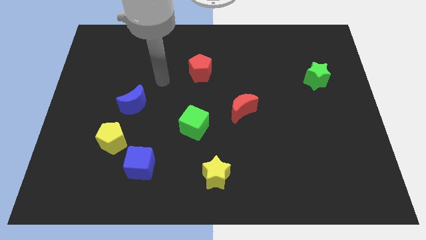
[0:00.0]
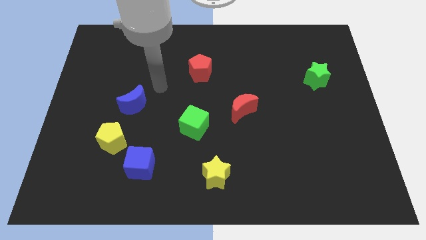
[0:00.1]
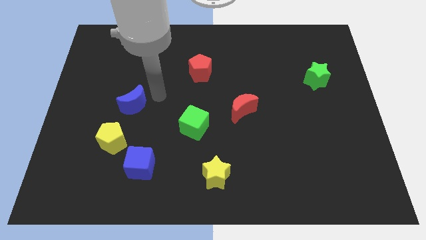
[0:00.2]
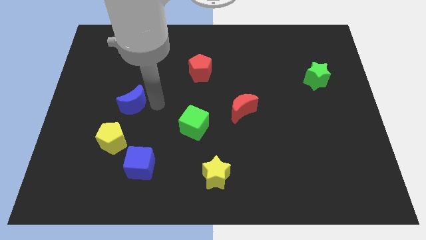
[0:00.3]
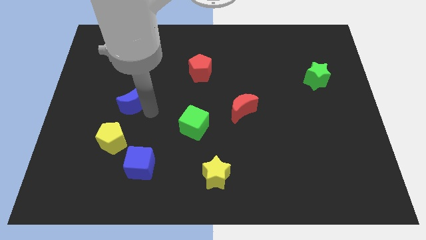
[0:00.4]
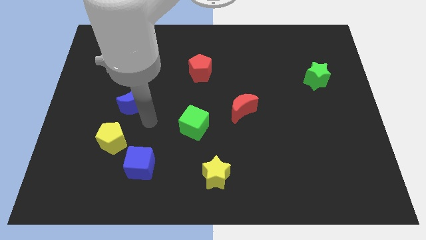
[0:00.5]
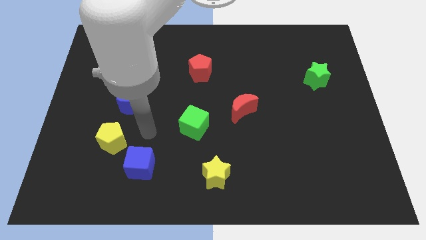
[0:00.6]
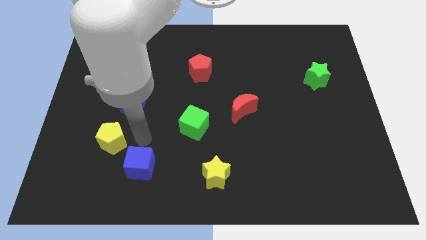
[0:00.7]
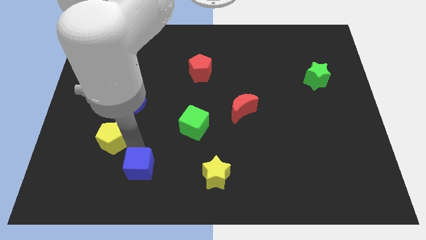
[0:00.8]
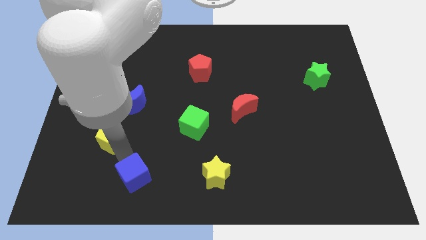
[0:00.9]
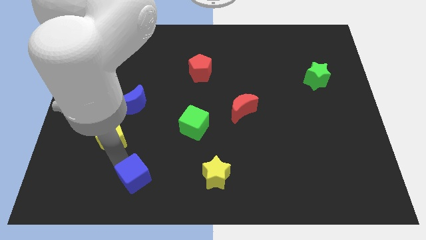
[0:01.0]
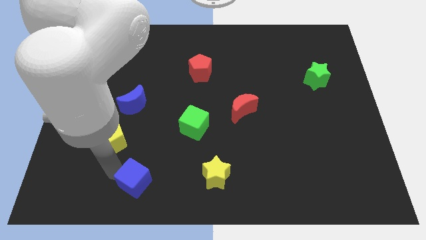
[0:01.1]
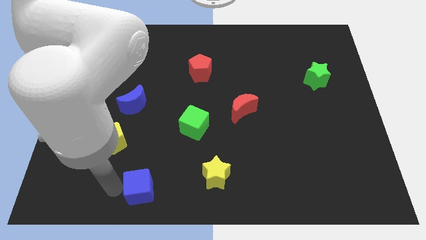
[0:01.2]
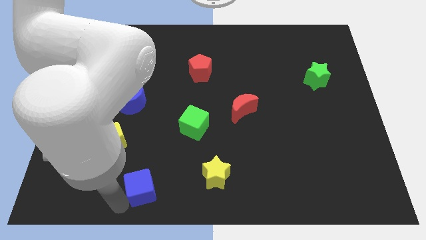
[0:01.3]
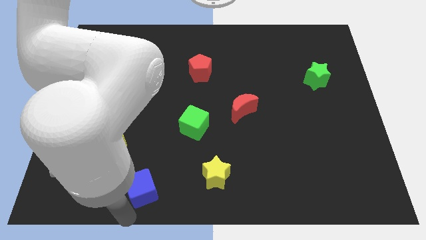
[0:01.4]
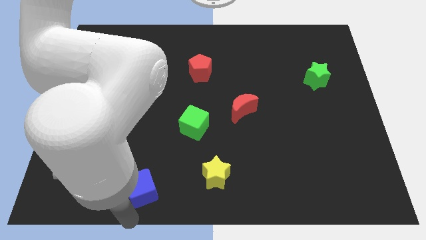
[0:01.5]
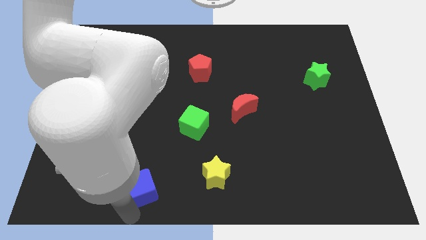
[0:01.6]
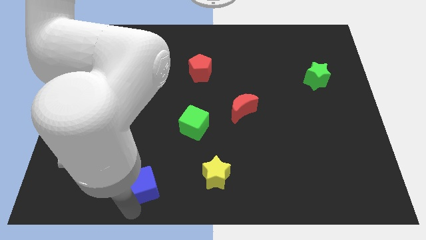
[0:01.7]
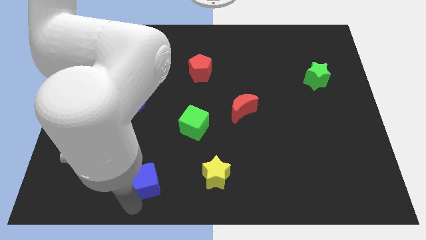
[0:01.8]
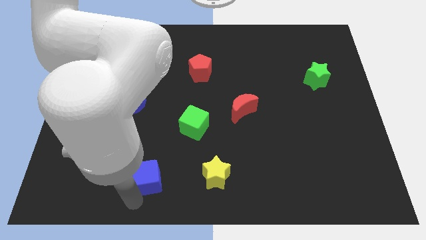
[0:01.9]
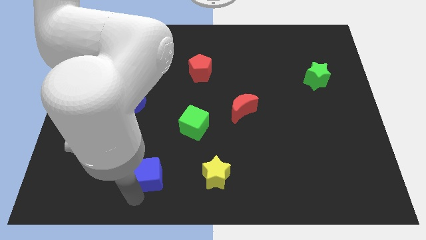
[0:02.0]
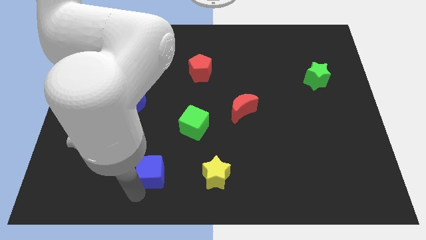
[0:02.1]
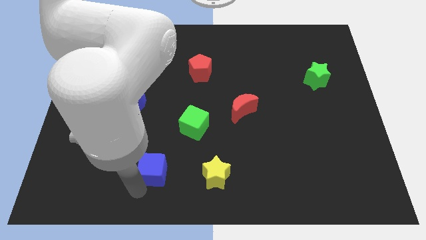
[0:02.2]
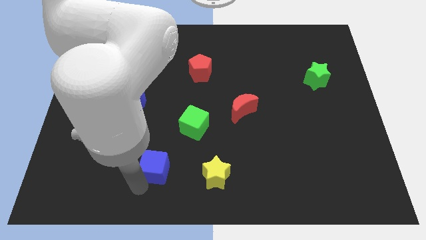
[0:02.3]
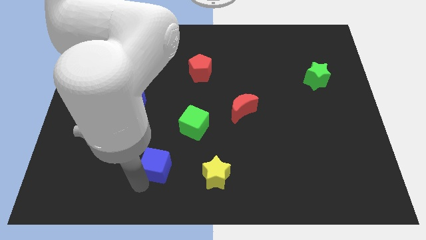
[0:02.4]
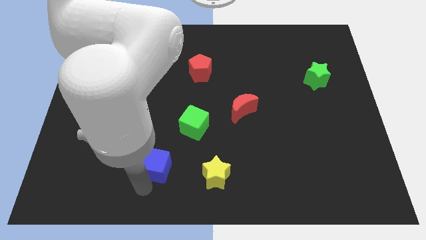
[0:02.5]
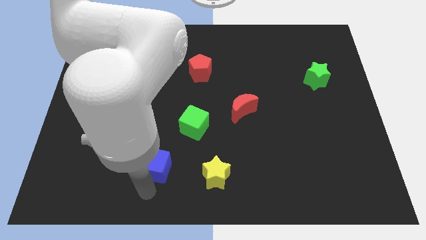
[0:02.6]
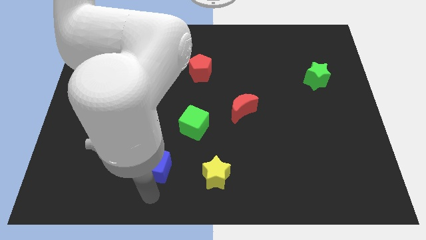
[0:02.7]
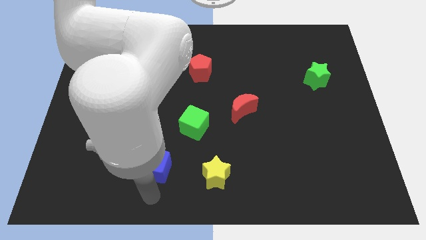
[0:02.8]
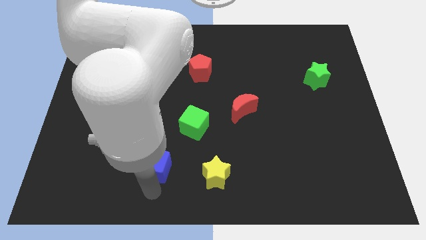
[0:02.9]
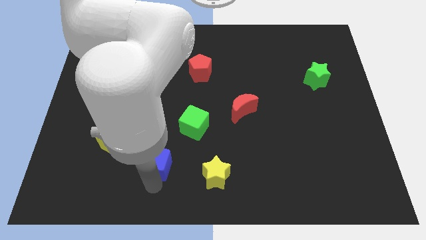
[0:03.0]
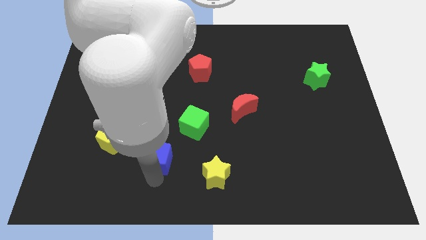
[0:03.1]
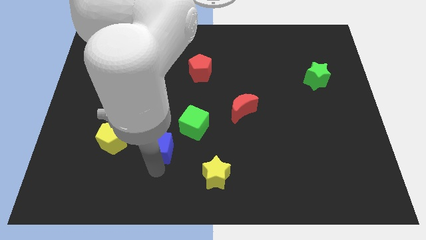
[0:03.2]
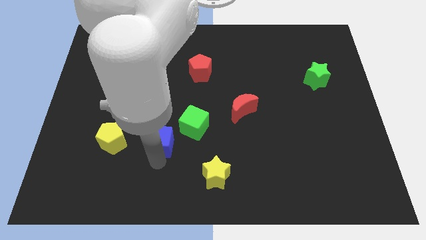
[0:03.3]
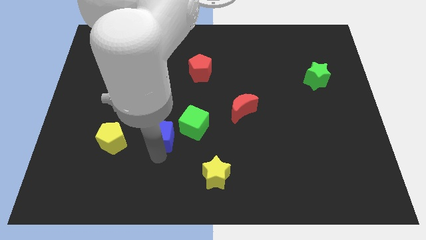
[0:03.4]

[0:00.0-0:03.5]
slightly slide the blue cube upwards and to the right diagonally

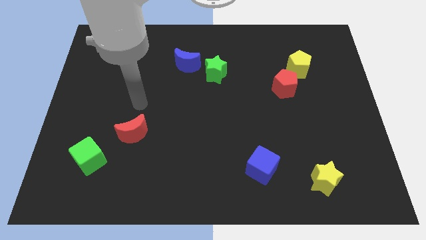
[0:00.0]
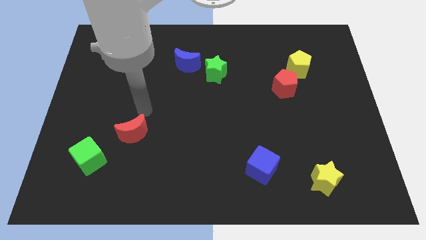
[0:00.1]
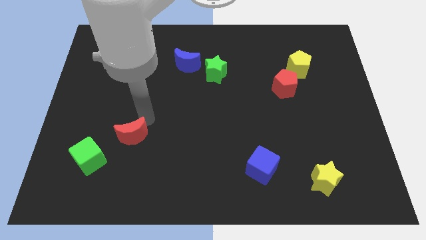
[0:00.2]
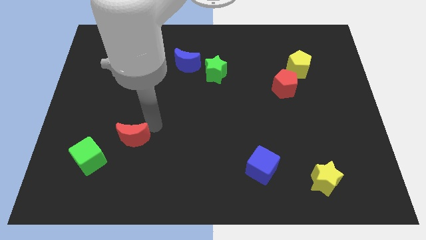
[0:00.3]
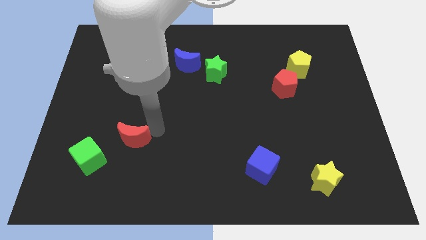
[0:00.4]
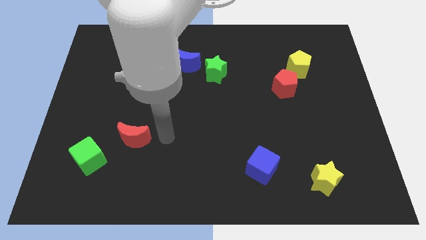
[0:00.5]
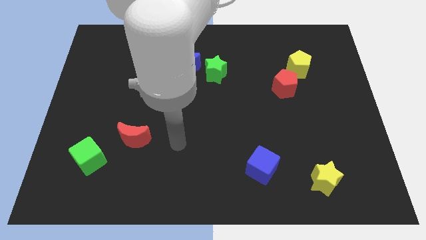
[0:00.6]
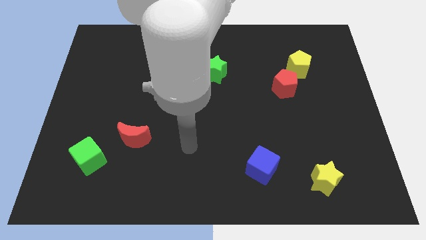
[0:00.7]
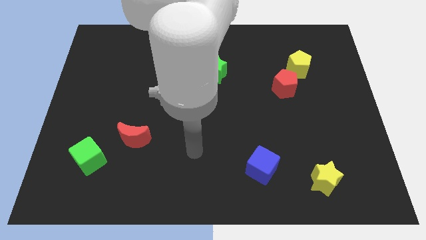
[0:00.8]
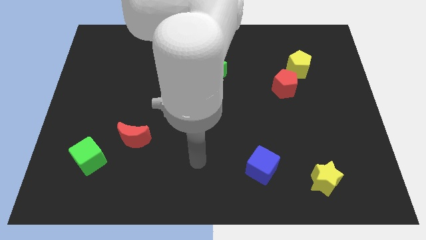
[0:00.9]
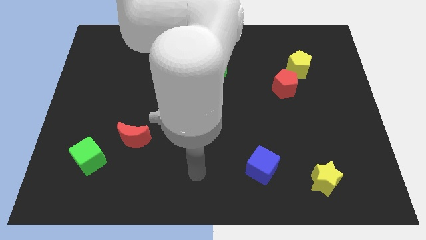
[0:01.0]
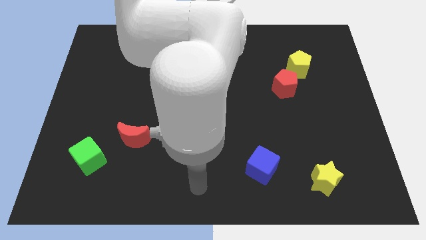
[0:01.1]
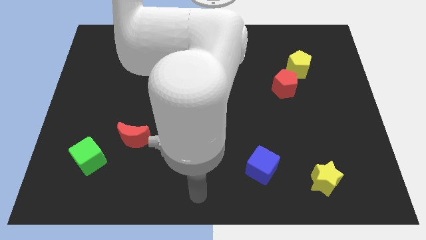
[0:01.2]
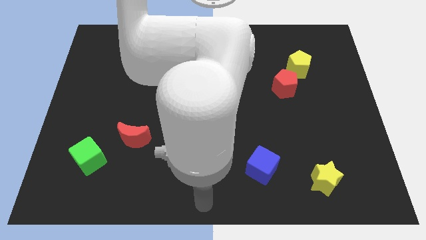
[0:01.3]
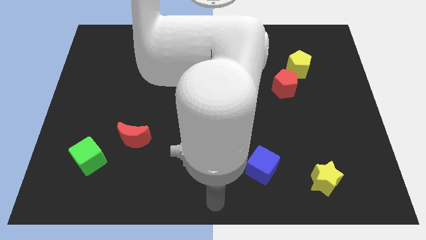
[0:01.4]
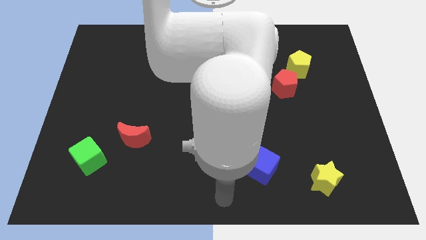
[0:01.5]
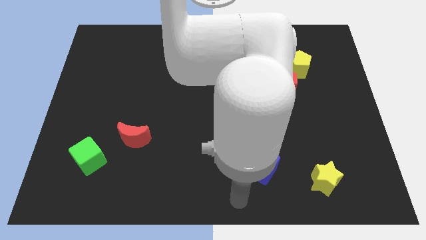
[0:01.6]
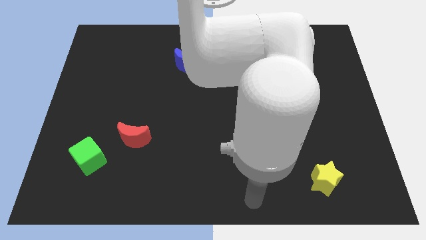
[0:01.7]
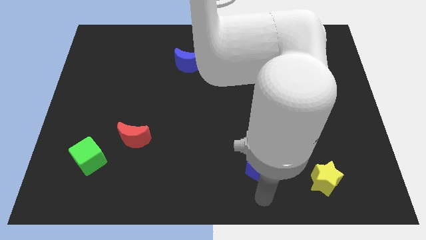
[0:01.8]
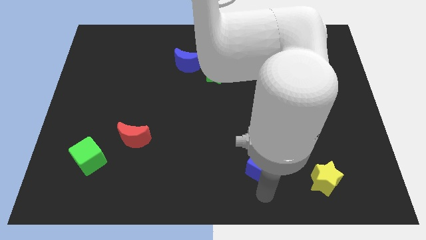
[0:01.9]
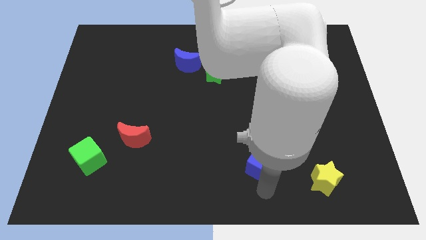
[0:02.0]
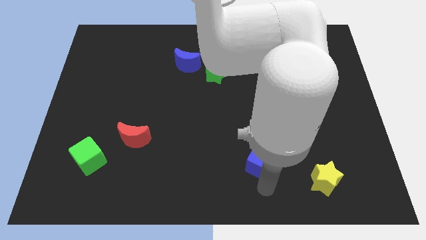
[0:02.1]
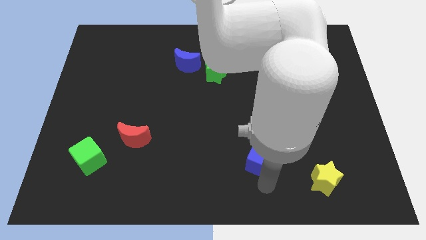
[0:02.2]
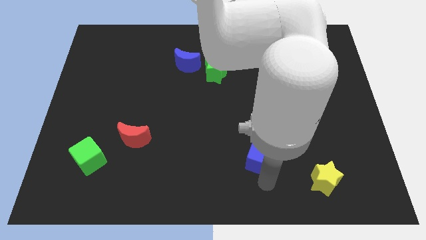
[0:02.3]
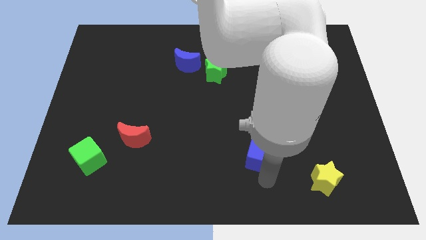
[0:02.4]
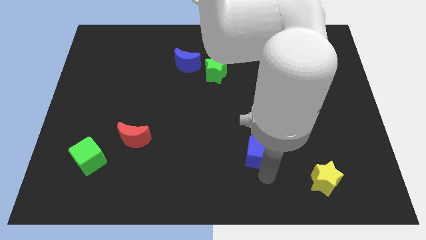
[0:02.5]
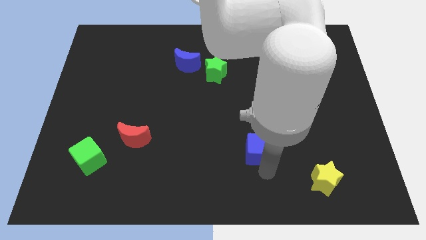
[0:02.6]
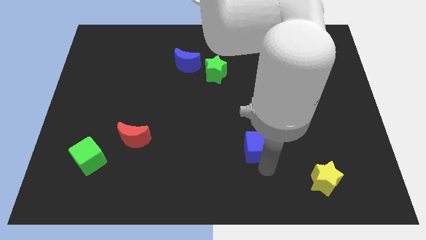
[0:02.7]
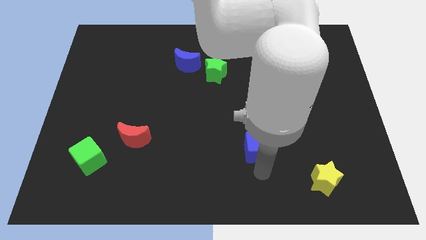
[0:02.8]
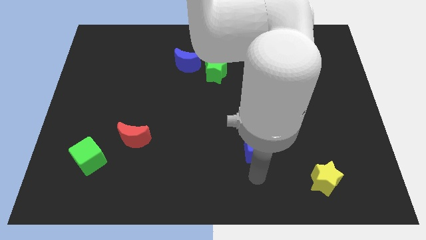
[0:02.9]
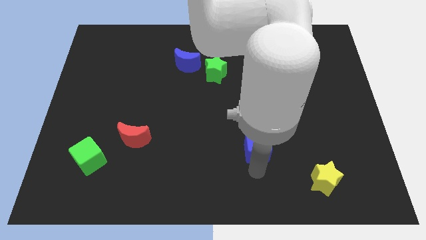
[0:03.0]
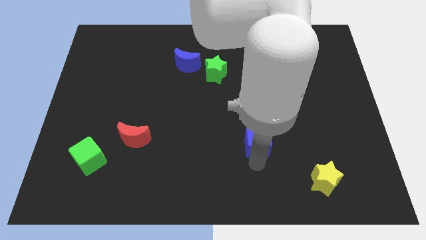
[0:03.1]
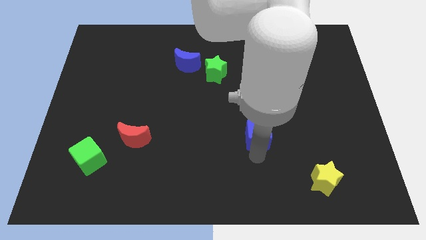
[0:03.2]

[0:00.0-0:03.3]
slightly move the blue cube upwards

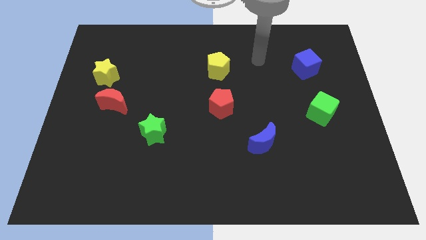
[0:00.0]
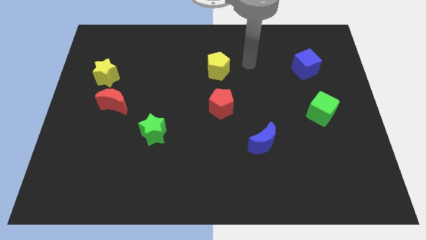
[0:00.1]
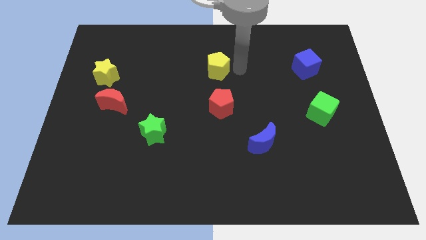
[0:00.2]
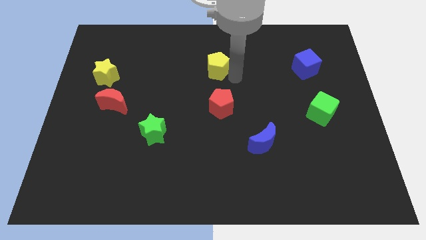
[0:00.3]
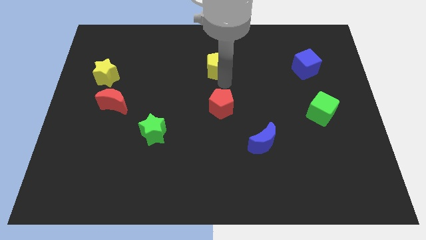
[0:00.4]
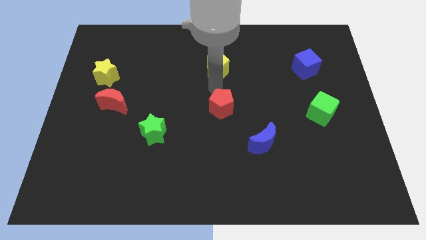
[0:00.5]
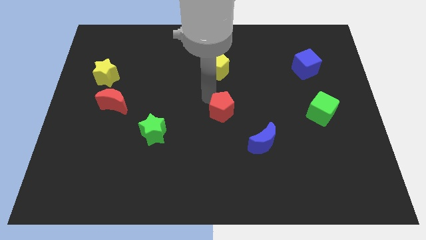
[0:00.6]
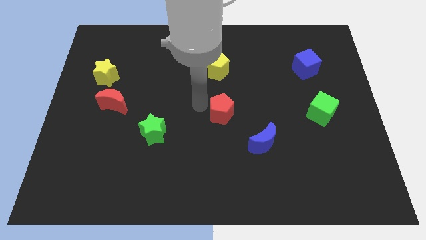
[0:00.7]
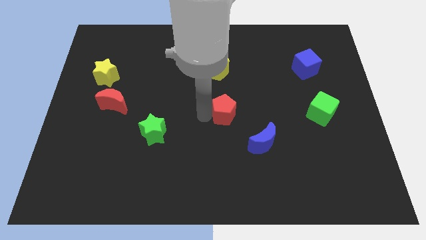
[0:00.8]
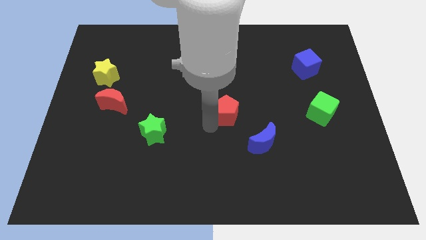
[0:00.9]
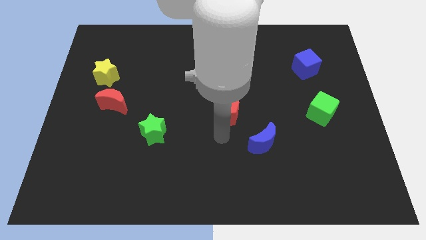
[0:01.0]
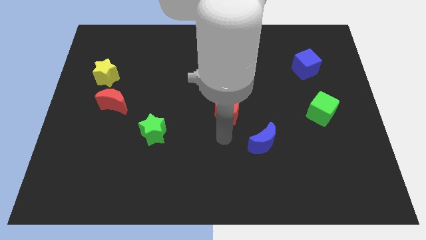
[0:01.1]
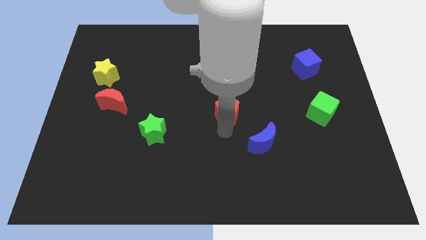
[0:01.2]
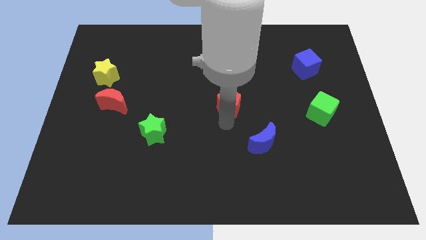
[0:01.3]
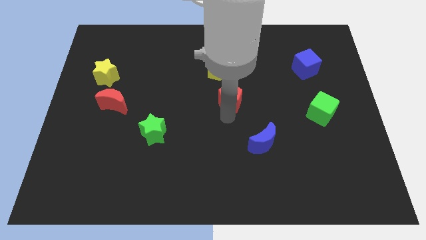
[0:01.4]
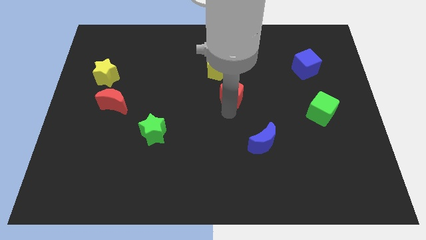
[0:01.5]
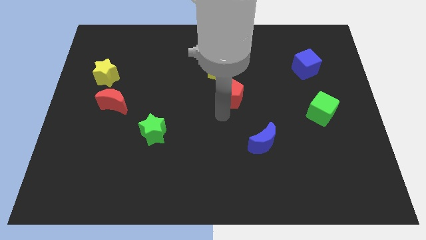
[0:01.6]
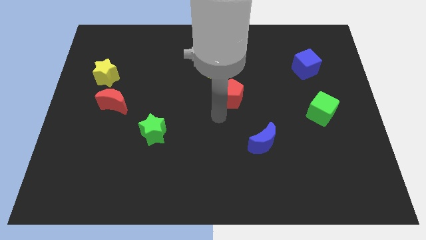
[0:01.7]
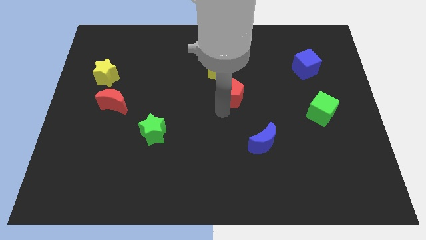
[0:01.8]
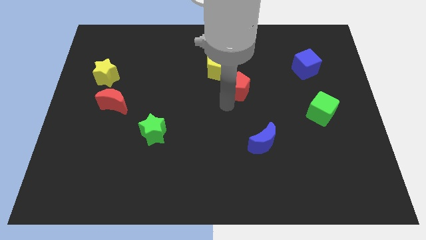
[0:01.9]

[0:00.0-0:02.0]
slightly slide the red pentagon diagonally up and right
